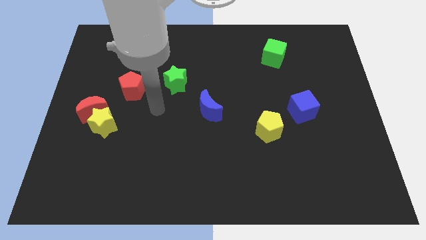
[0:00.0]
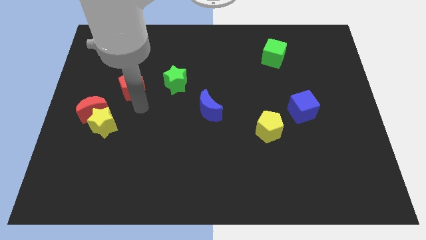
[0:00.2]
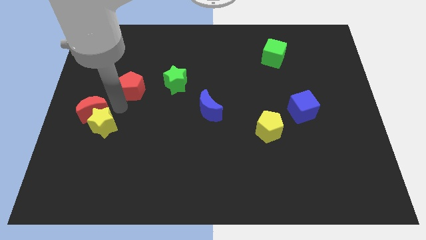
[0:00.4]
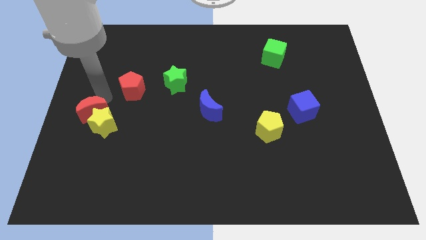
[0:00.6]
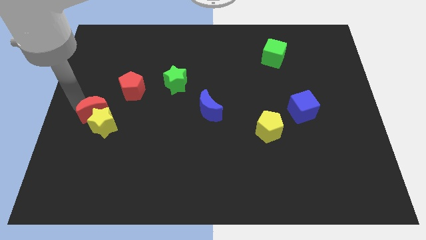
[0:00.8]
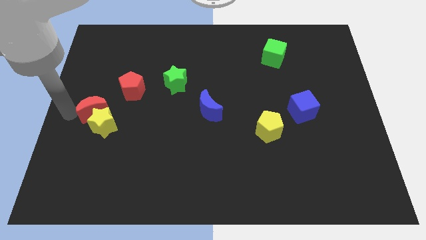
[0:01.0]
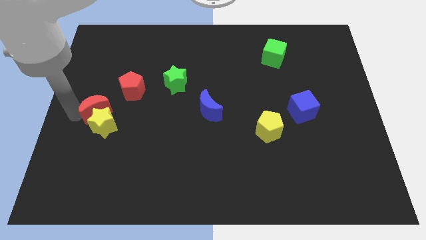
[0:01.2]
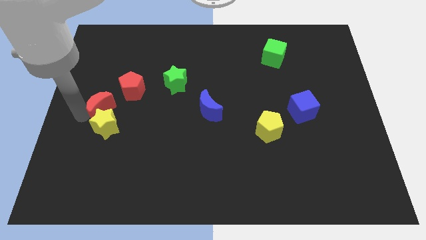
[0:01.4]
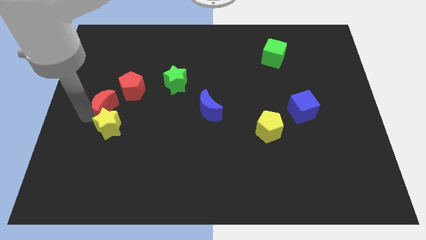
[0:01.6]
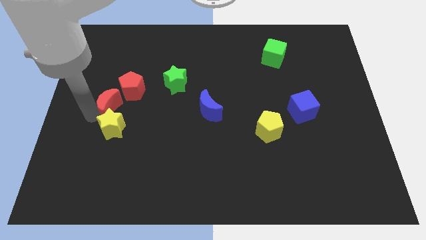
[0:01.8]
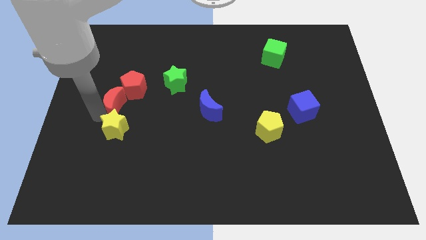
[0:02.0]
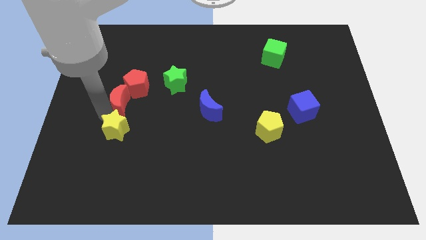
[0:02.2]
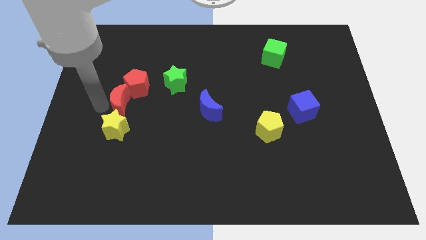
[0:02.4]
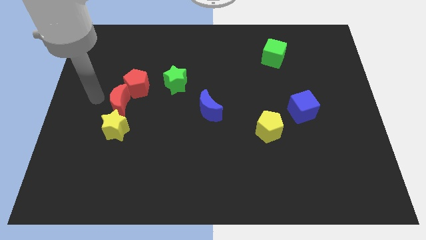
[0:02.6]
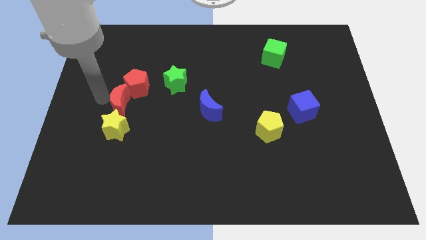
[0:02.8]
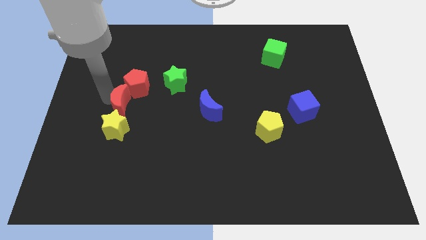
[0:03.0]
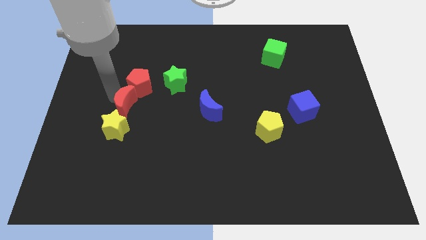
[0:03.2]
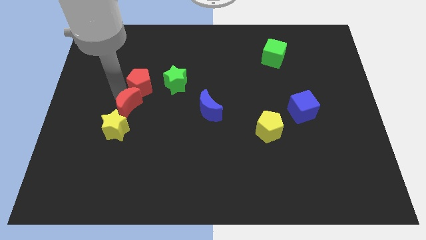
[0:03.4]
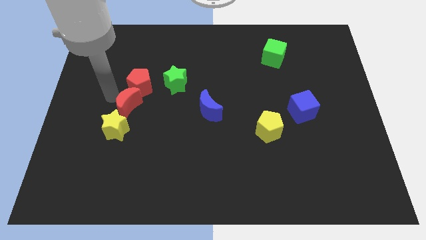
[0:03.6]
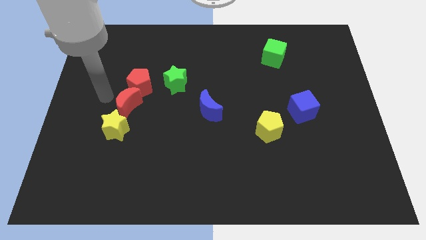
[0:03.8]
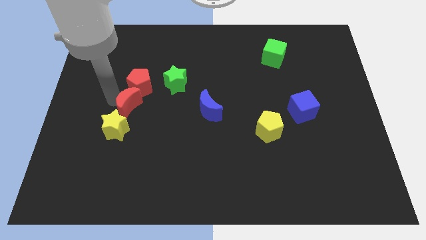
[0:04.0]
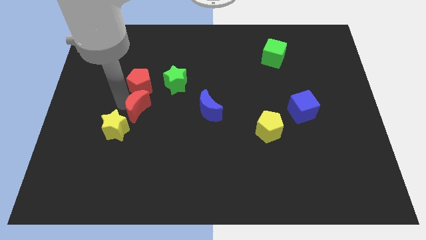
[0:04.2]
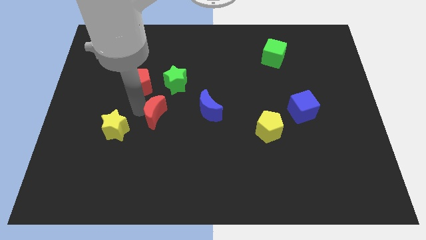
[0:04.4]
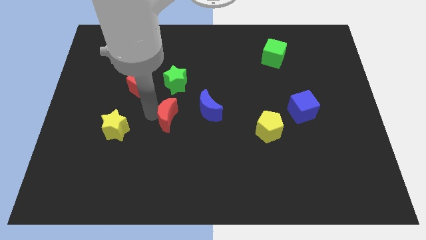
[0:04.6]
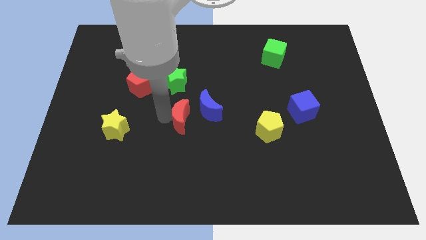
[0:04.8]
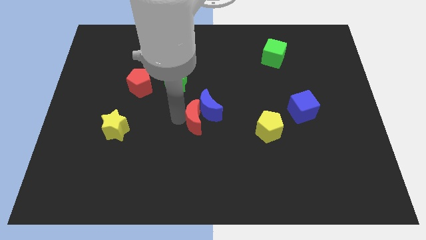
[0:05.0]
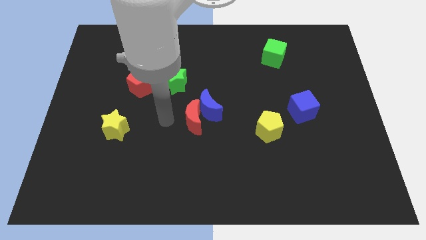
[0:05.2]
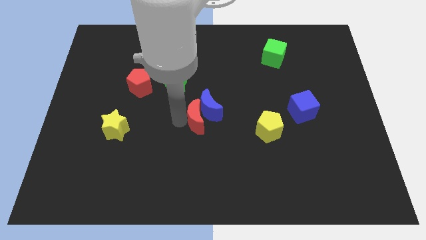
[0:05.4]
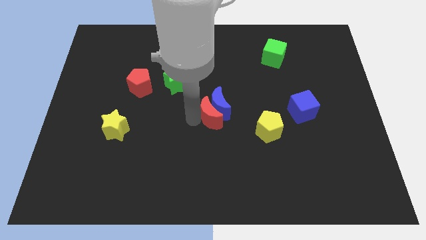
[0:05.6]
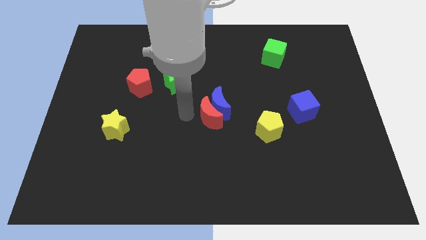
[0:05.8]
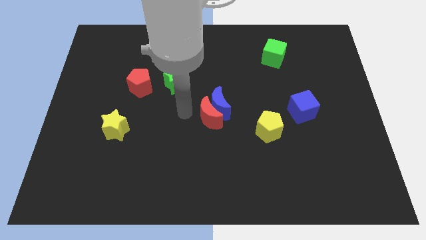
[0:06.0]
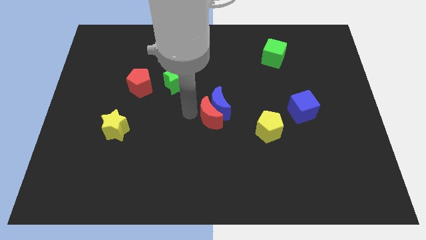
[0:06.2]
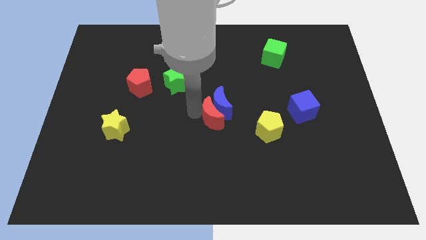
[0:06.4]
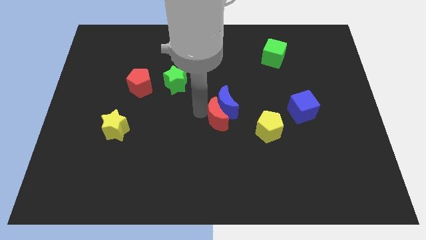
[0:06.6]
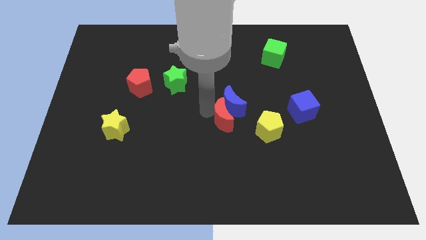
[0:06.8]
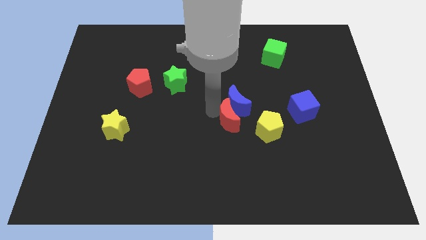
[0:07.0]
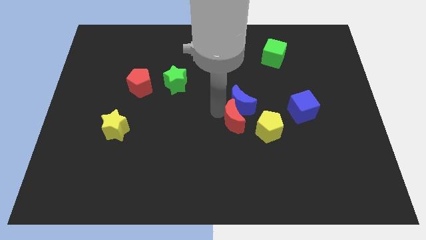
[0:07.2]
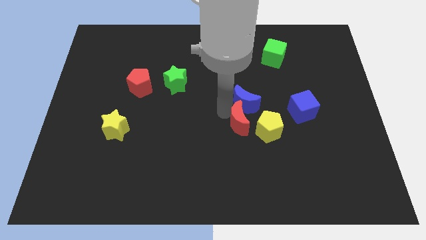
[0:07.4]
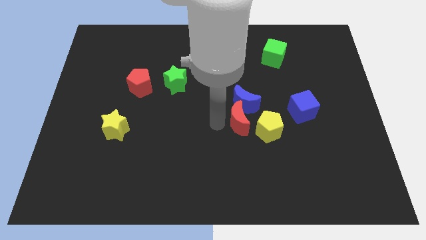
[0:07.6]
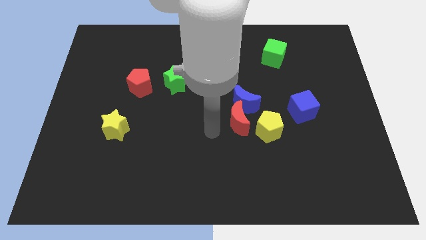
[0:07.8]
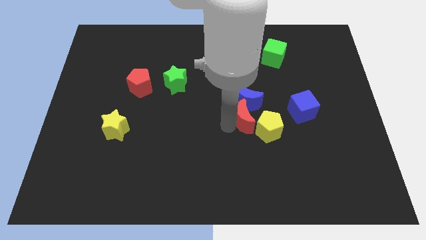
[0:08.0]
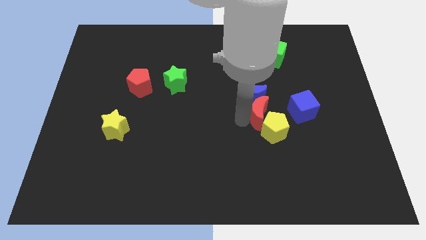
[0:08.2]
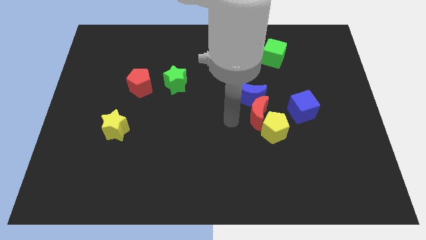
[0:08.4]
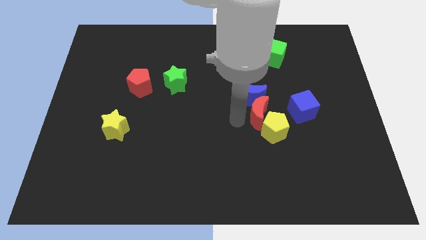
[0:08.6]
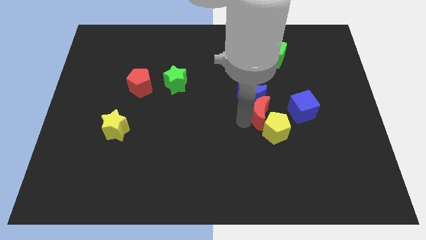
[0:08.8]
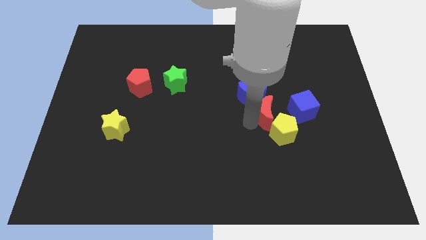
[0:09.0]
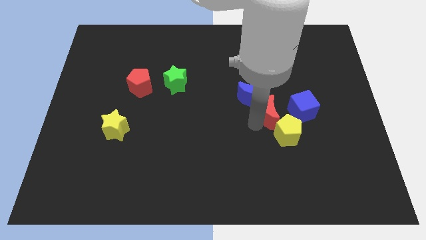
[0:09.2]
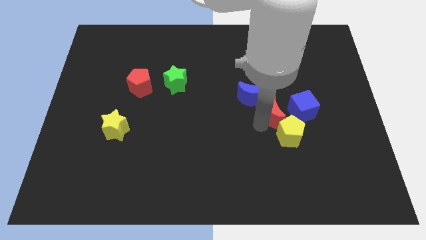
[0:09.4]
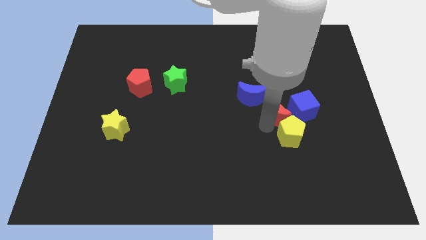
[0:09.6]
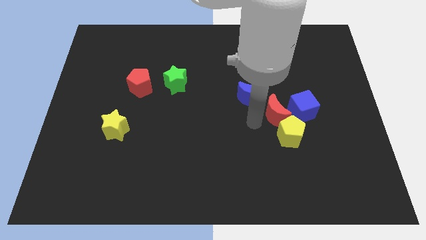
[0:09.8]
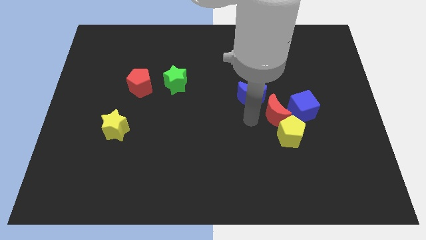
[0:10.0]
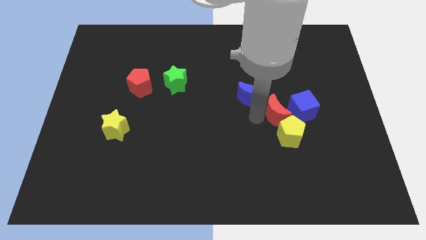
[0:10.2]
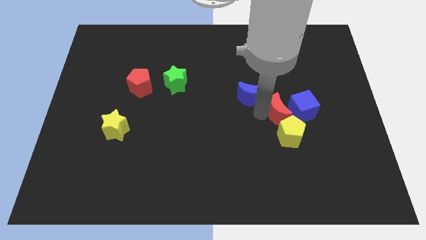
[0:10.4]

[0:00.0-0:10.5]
push the red moon towards the blue cube

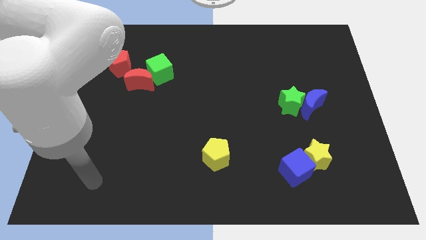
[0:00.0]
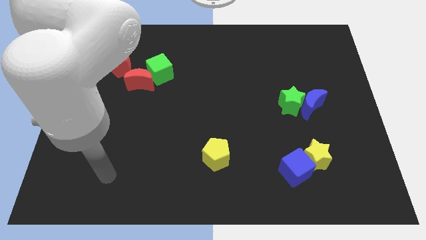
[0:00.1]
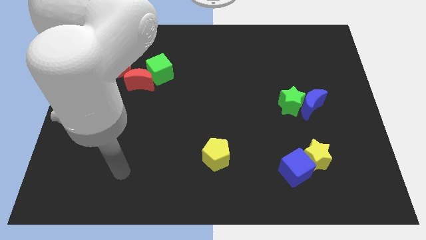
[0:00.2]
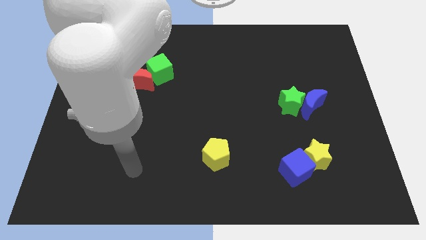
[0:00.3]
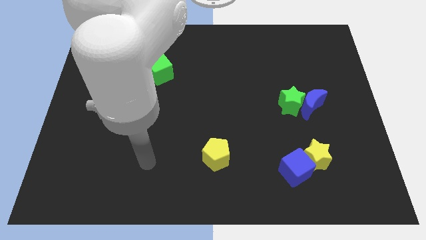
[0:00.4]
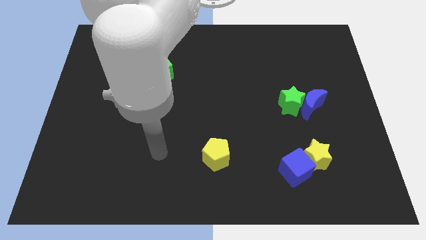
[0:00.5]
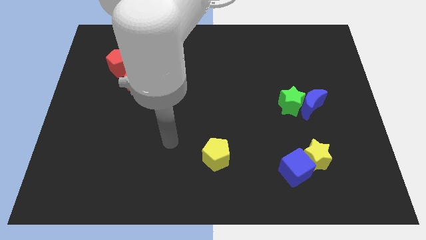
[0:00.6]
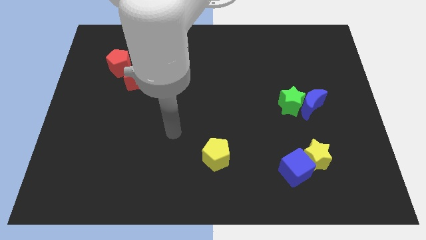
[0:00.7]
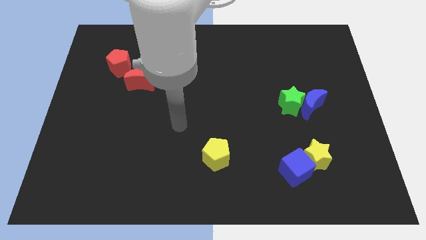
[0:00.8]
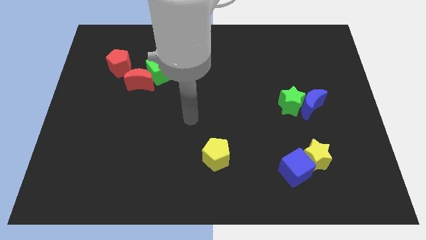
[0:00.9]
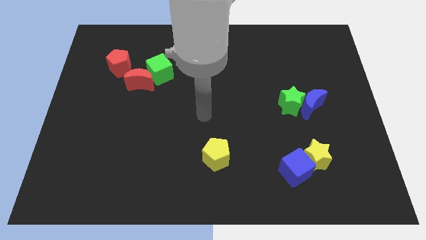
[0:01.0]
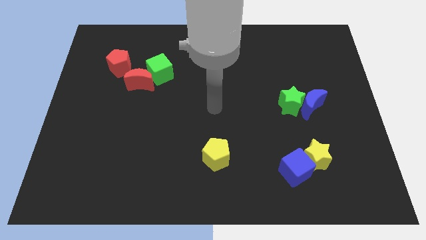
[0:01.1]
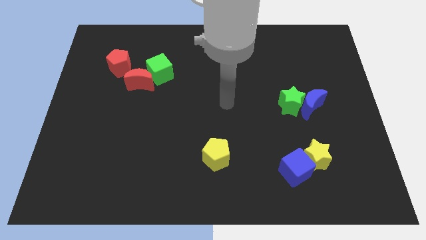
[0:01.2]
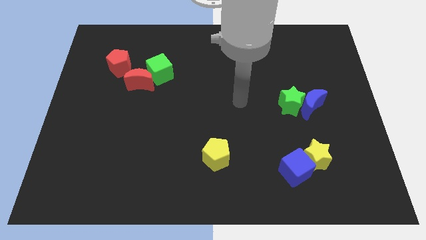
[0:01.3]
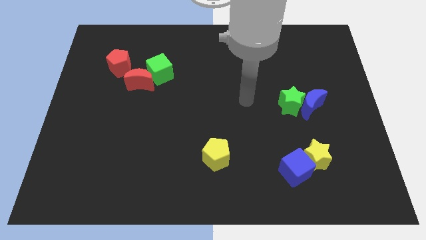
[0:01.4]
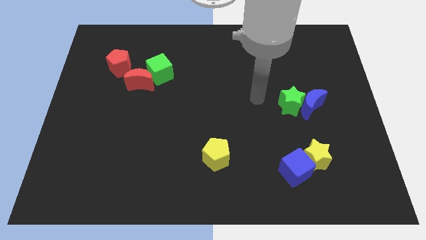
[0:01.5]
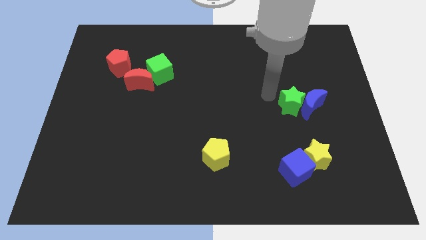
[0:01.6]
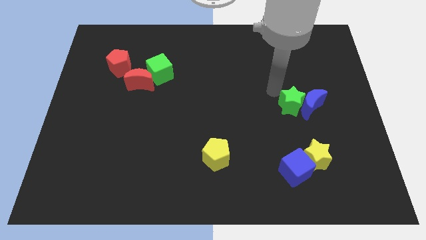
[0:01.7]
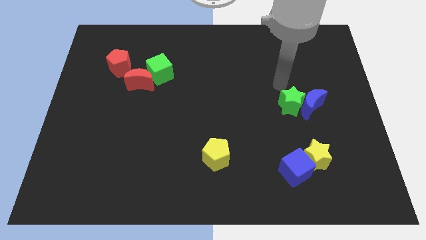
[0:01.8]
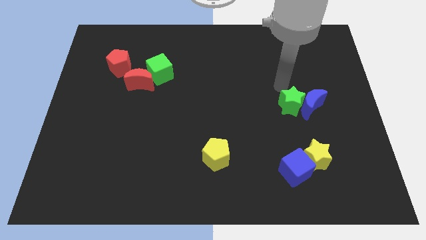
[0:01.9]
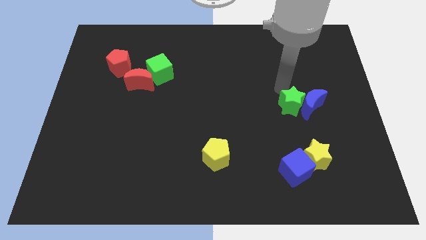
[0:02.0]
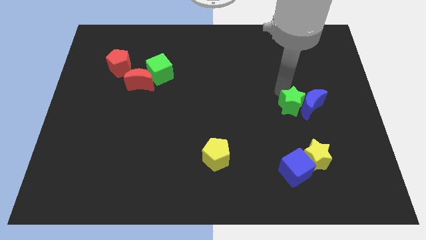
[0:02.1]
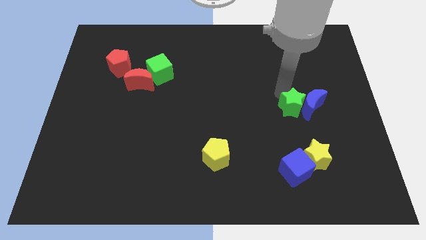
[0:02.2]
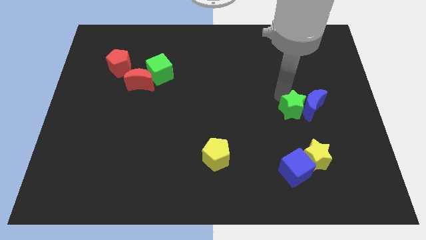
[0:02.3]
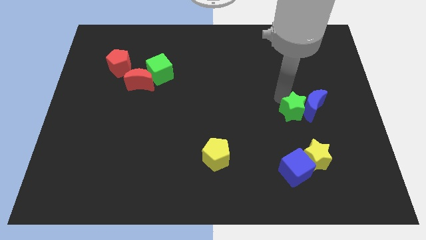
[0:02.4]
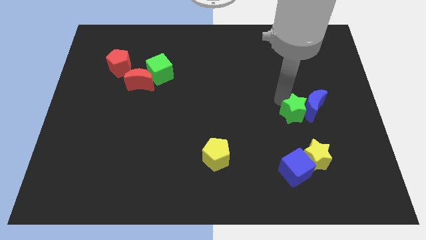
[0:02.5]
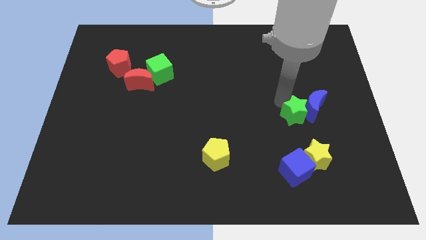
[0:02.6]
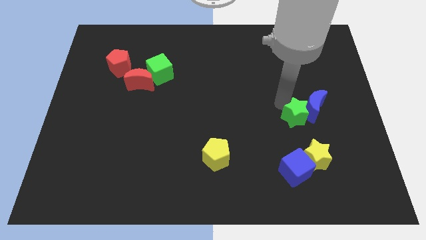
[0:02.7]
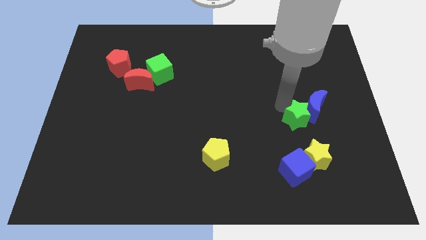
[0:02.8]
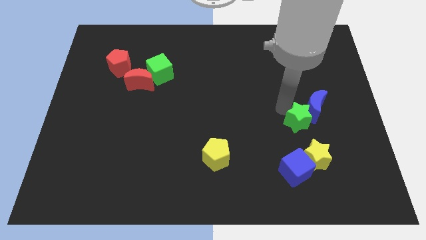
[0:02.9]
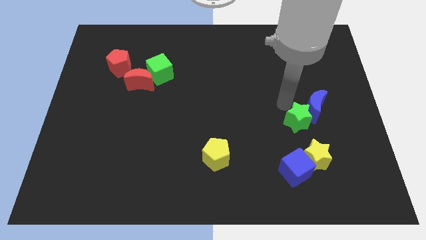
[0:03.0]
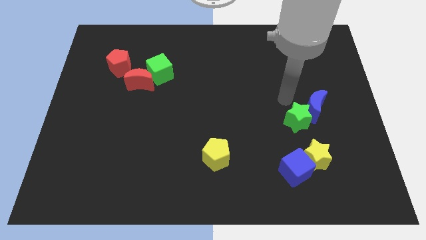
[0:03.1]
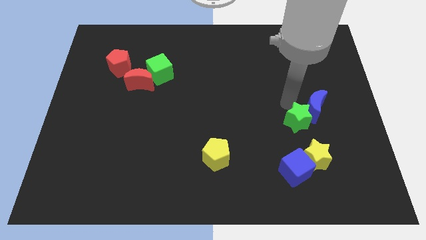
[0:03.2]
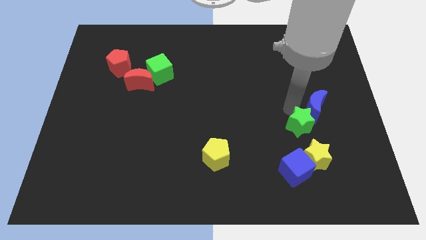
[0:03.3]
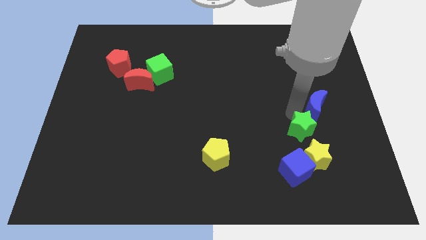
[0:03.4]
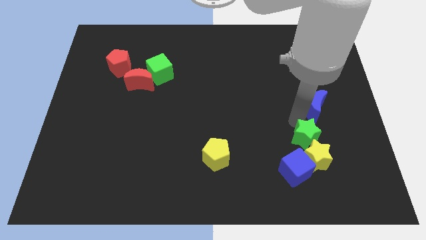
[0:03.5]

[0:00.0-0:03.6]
push the green star towards the yellow star
